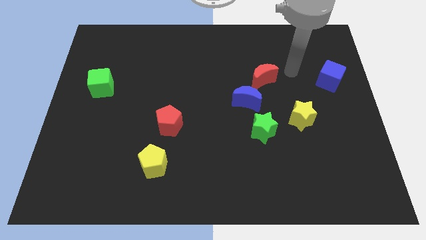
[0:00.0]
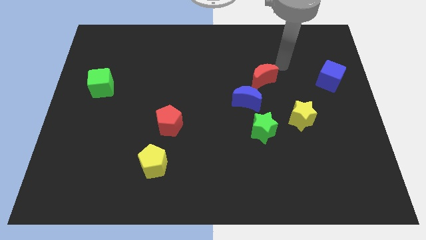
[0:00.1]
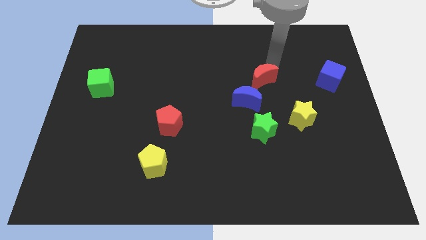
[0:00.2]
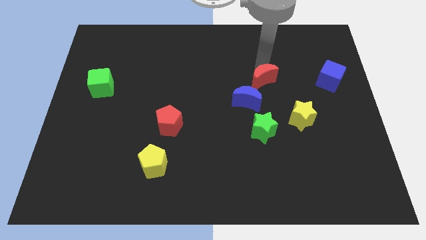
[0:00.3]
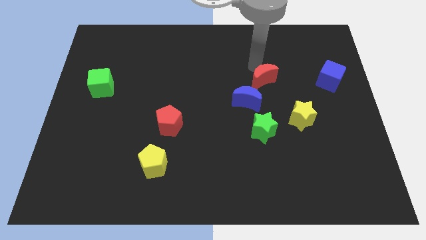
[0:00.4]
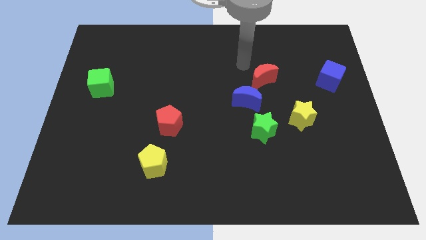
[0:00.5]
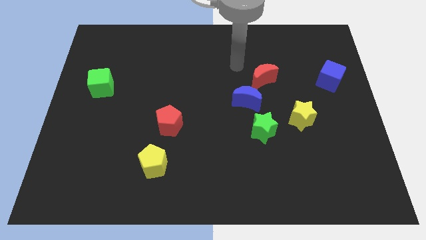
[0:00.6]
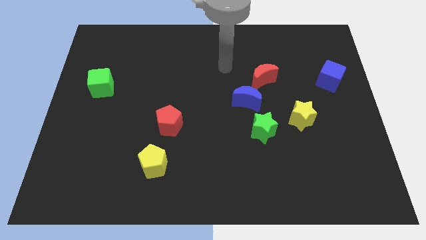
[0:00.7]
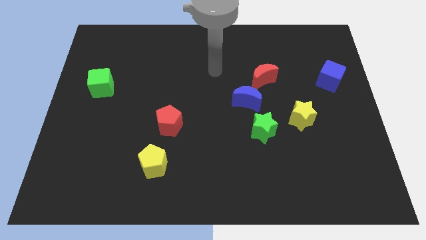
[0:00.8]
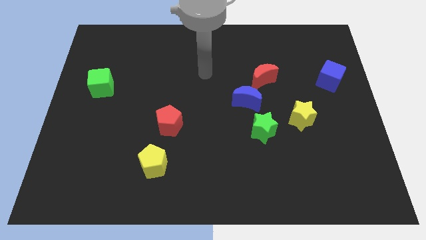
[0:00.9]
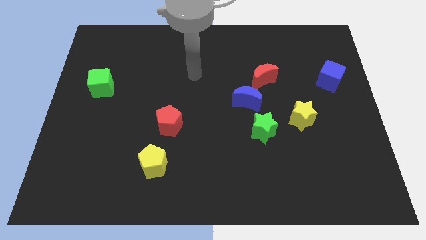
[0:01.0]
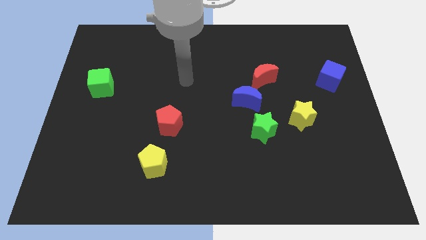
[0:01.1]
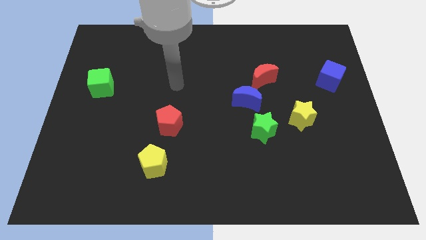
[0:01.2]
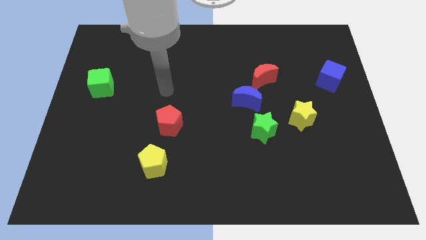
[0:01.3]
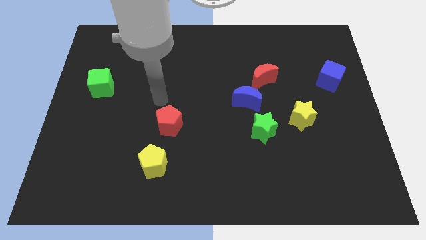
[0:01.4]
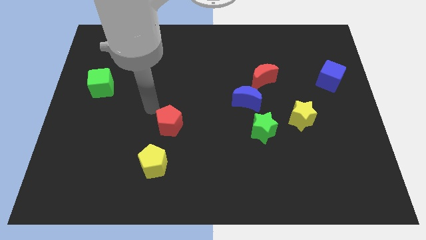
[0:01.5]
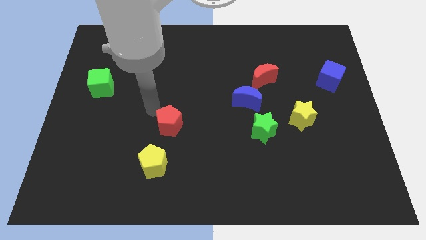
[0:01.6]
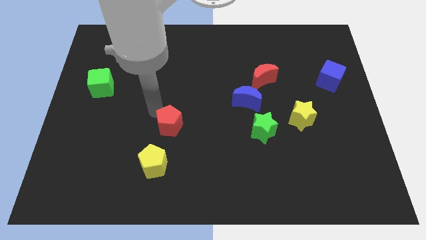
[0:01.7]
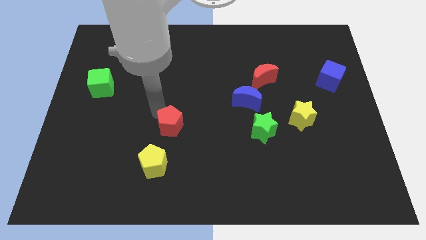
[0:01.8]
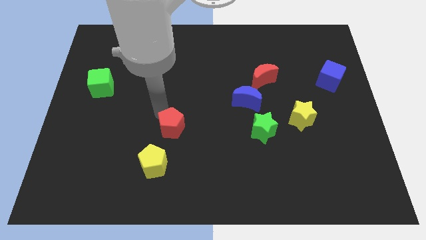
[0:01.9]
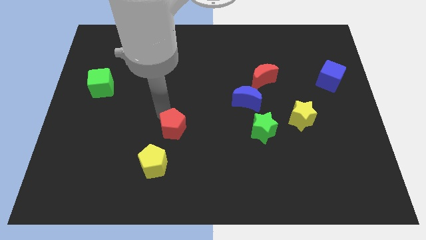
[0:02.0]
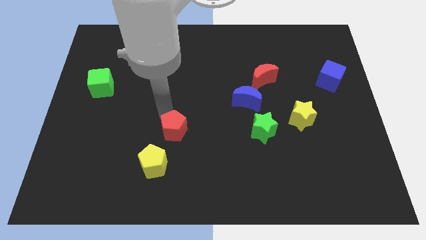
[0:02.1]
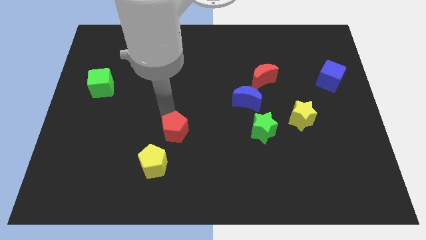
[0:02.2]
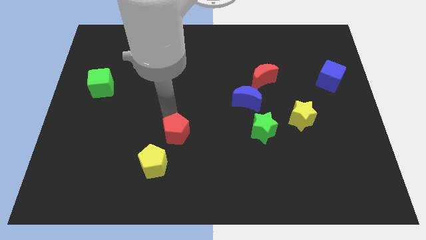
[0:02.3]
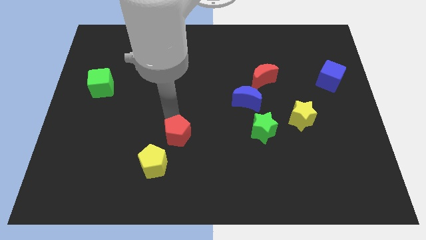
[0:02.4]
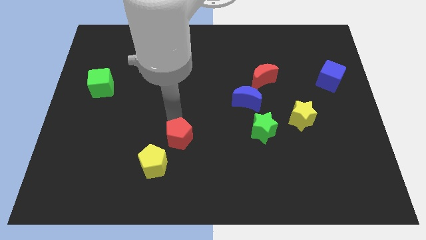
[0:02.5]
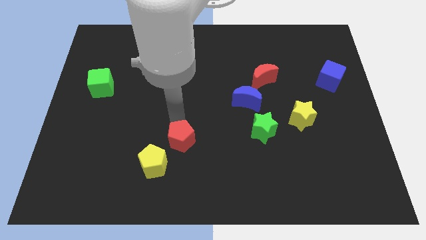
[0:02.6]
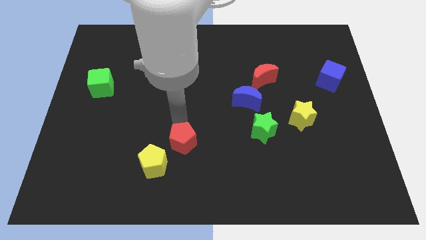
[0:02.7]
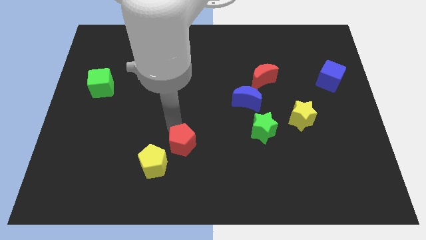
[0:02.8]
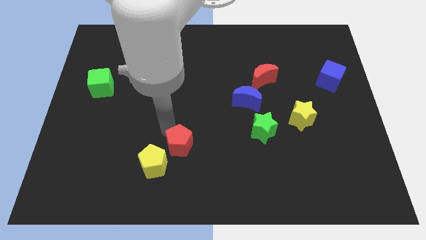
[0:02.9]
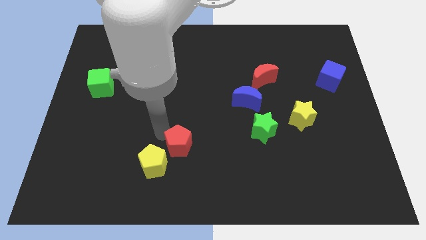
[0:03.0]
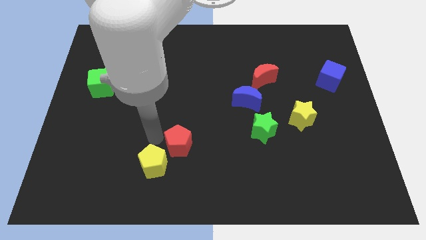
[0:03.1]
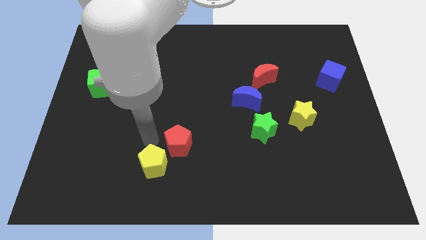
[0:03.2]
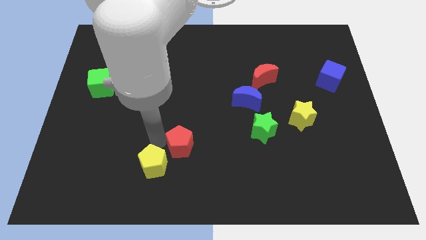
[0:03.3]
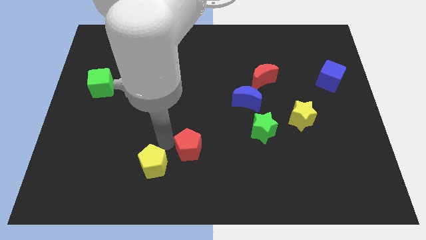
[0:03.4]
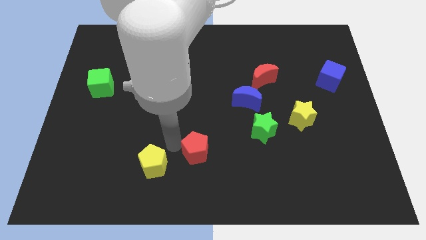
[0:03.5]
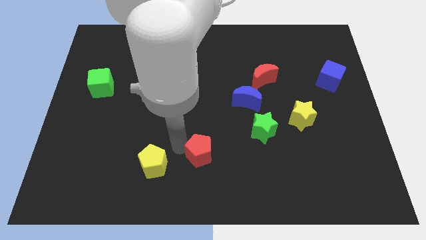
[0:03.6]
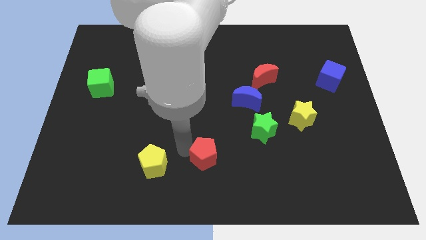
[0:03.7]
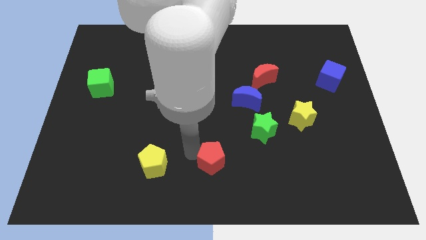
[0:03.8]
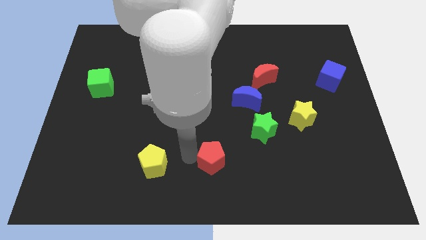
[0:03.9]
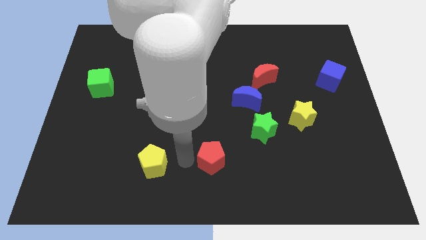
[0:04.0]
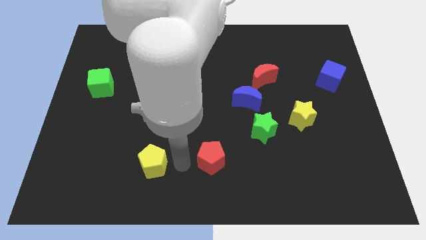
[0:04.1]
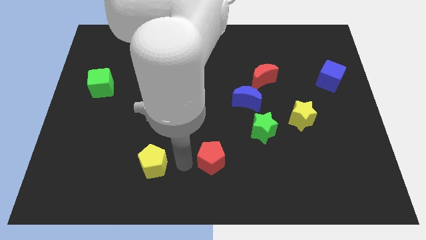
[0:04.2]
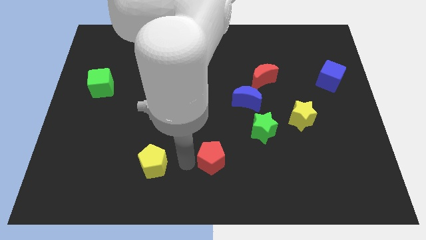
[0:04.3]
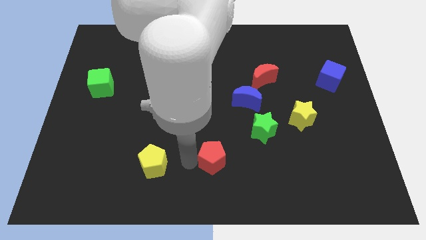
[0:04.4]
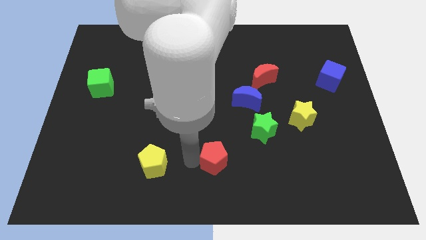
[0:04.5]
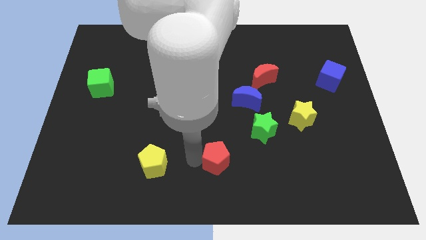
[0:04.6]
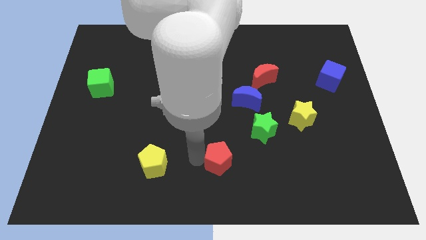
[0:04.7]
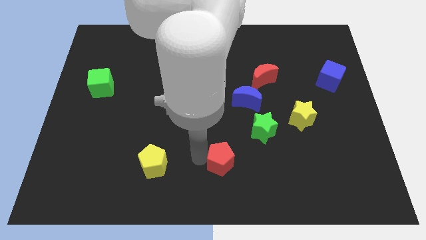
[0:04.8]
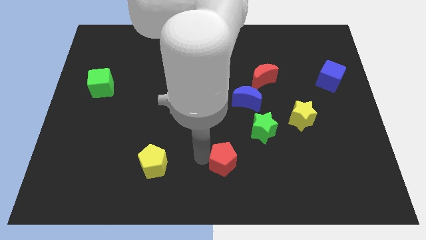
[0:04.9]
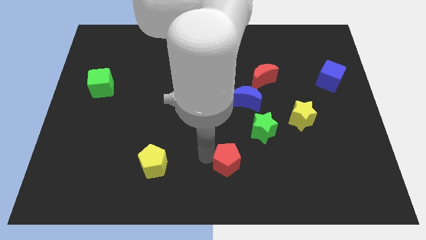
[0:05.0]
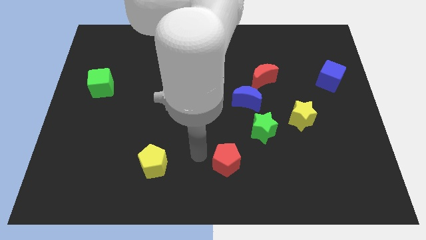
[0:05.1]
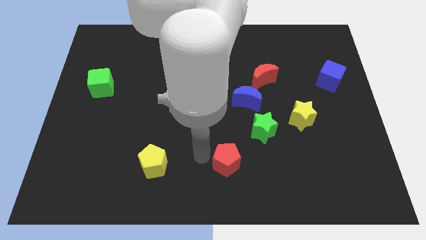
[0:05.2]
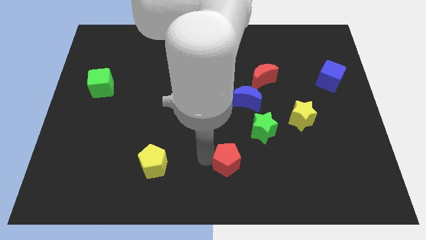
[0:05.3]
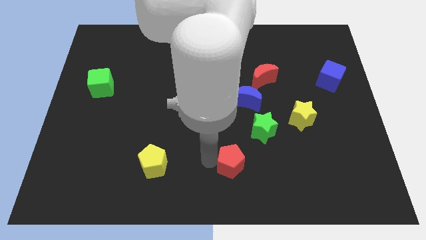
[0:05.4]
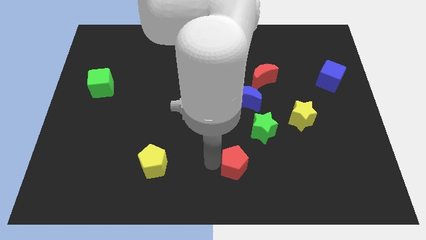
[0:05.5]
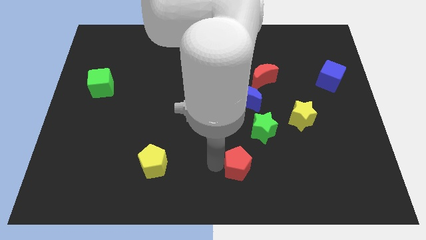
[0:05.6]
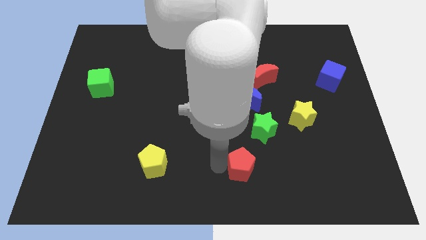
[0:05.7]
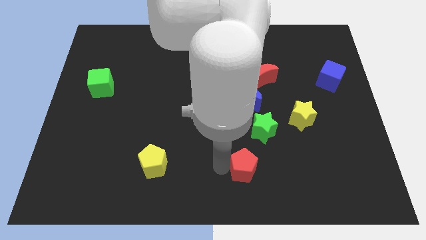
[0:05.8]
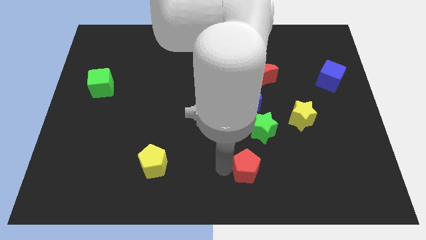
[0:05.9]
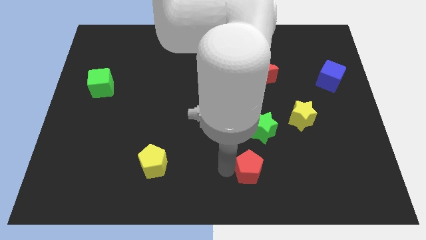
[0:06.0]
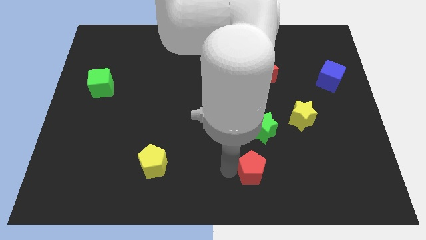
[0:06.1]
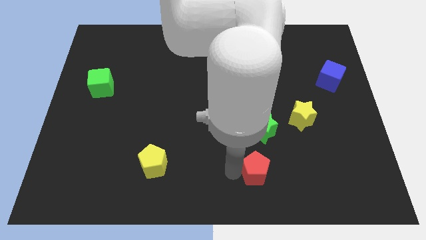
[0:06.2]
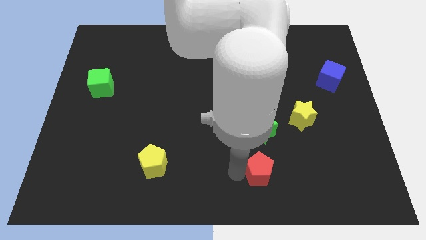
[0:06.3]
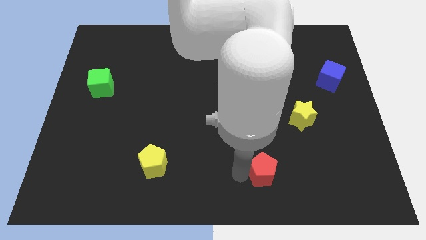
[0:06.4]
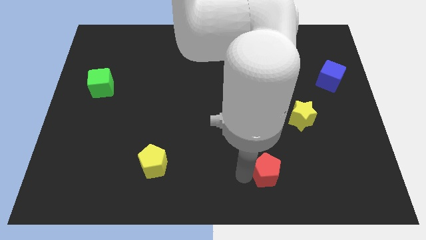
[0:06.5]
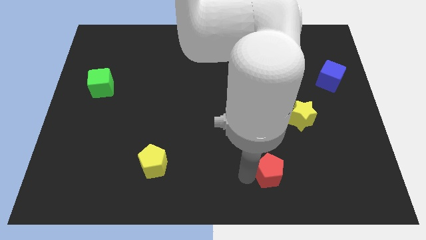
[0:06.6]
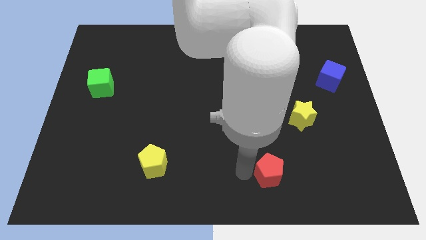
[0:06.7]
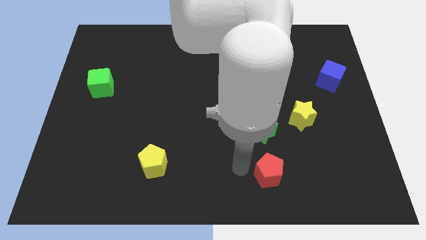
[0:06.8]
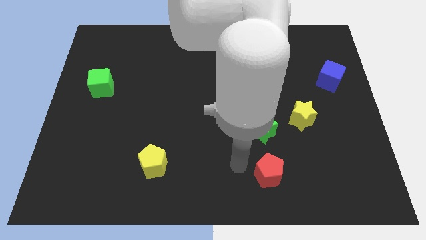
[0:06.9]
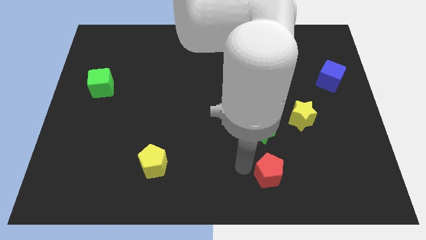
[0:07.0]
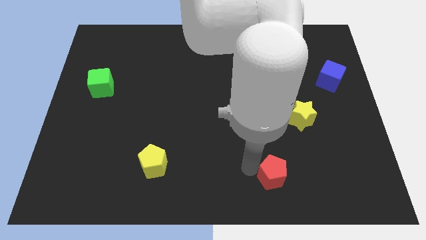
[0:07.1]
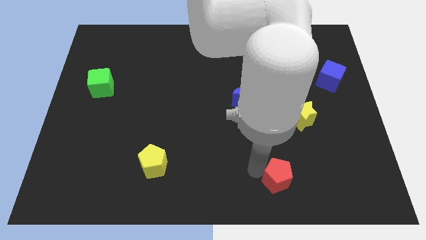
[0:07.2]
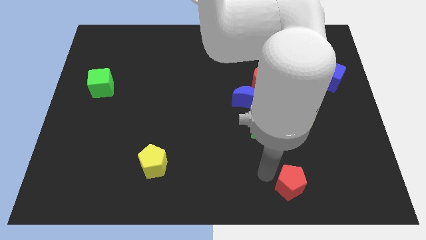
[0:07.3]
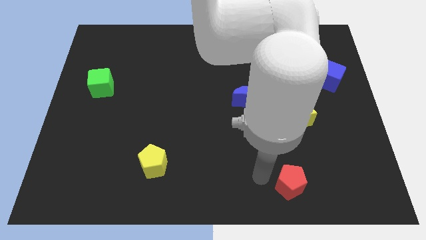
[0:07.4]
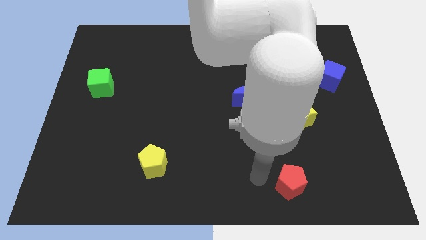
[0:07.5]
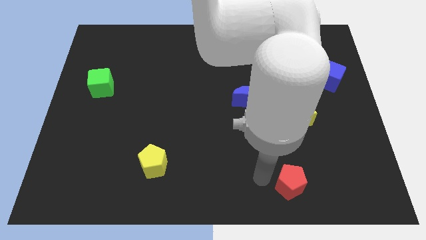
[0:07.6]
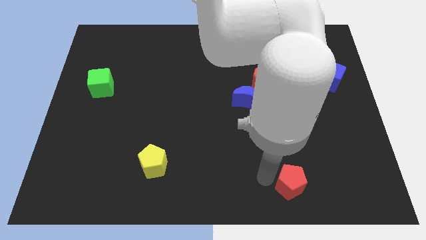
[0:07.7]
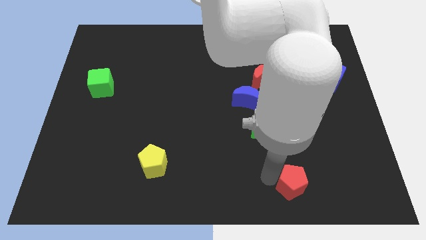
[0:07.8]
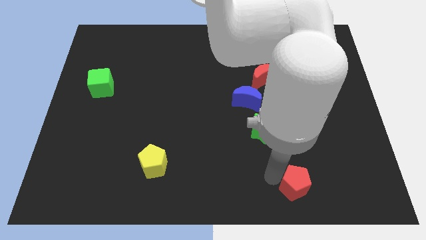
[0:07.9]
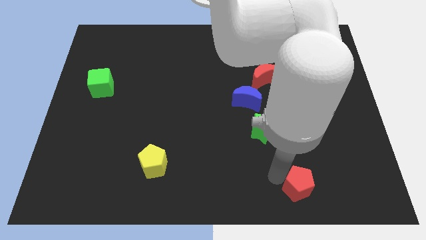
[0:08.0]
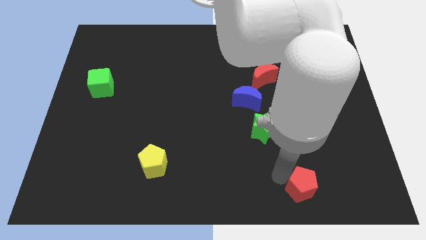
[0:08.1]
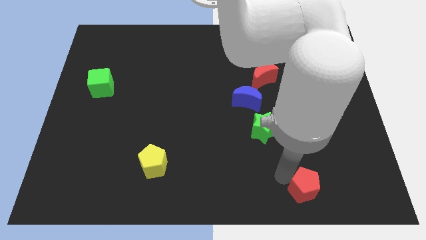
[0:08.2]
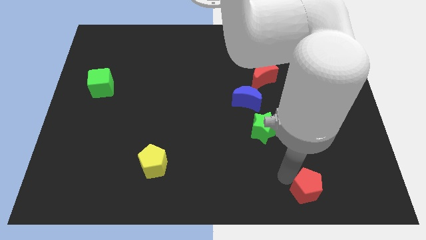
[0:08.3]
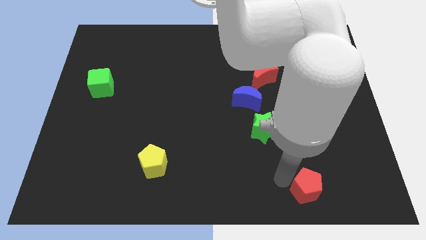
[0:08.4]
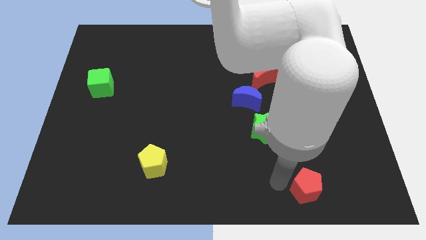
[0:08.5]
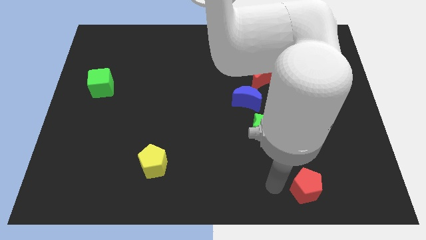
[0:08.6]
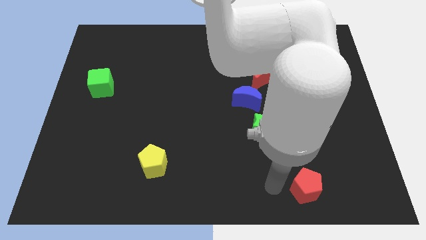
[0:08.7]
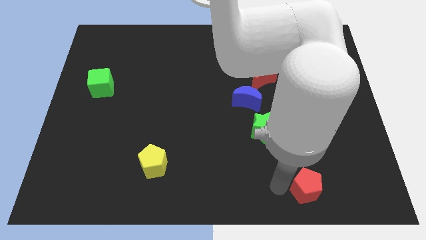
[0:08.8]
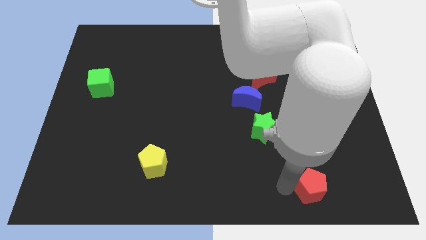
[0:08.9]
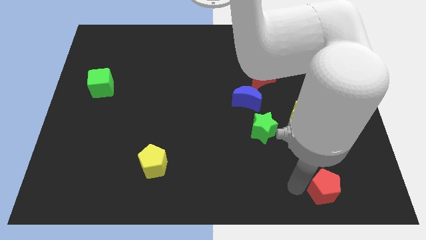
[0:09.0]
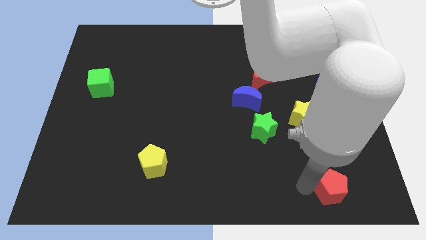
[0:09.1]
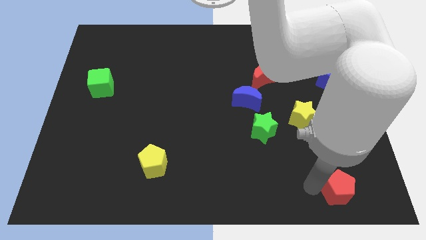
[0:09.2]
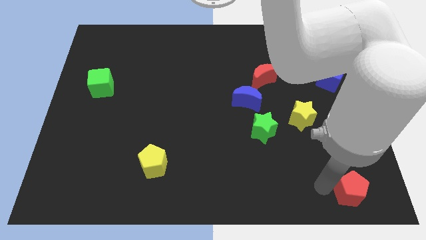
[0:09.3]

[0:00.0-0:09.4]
slide the red pentagon to the bottom right corner
